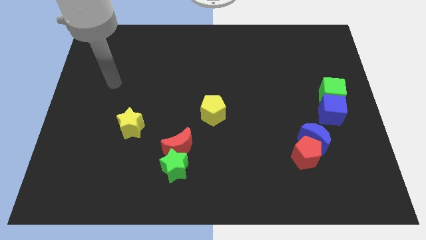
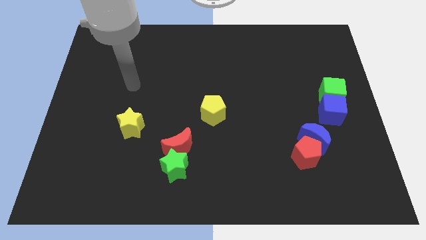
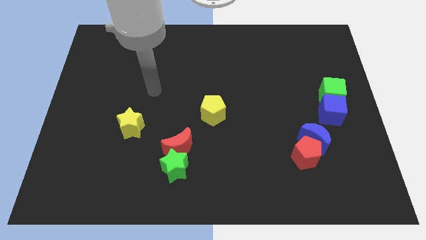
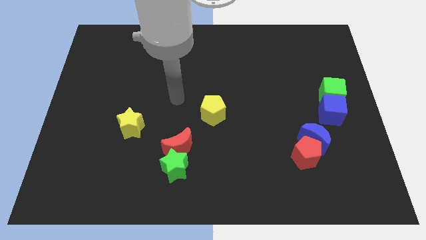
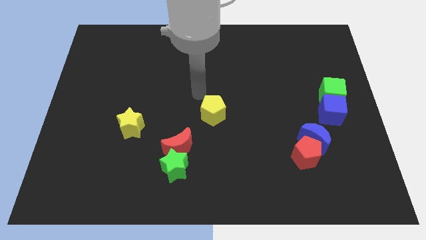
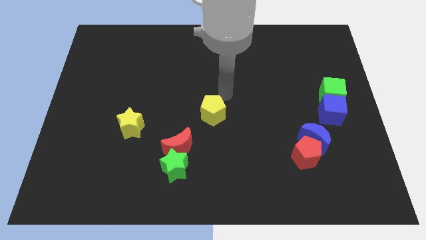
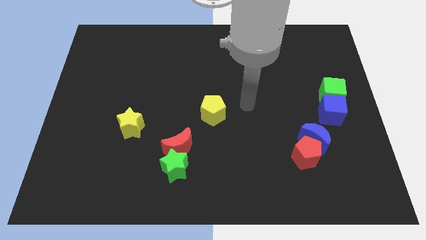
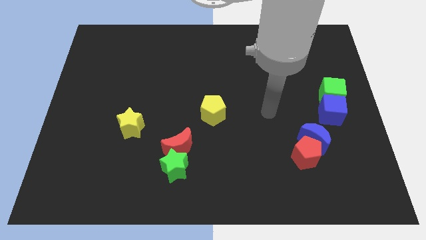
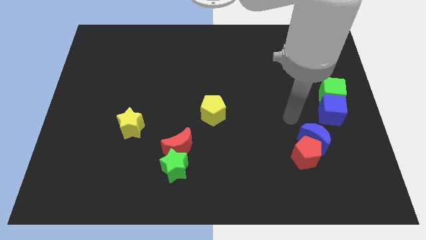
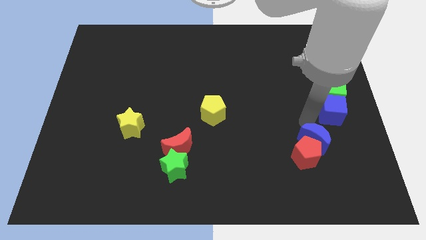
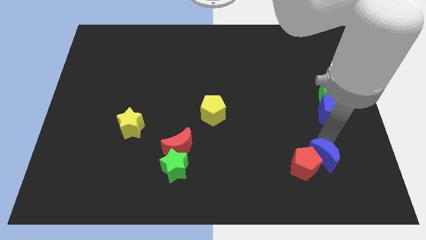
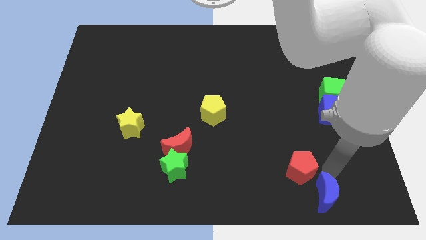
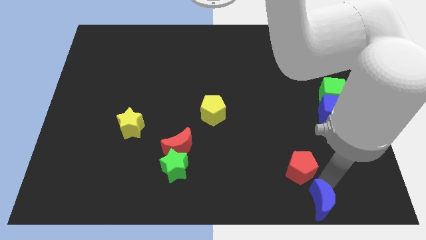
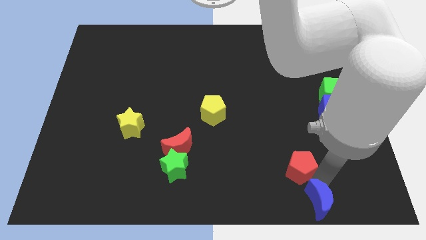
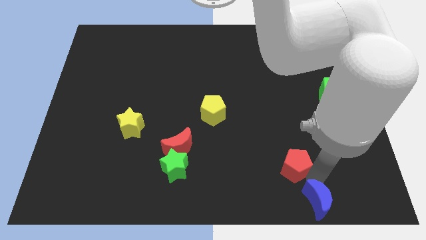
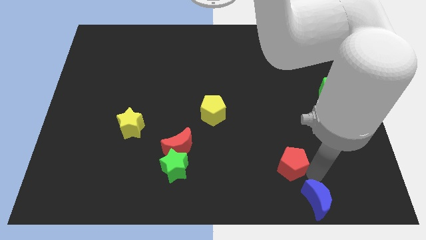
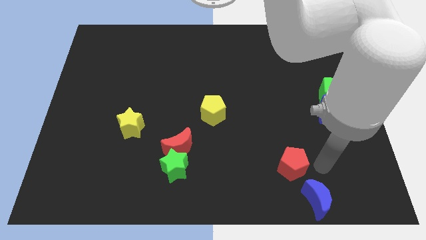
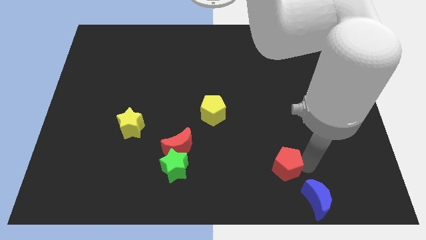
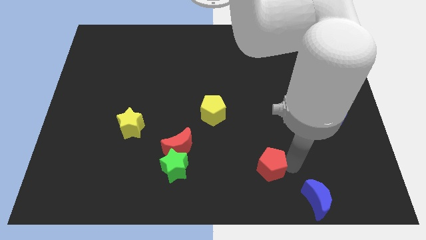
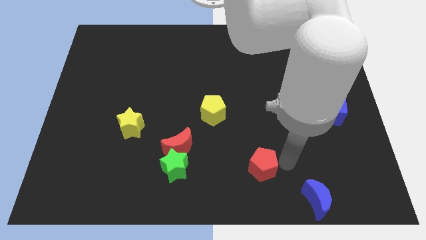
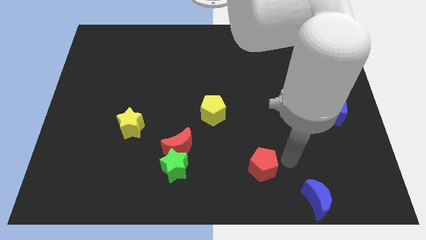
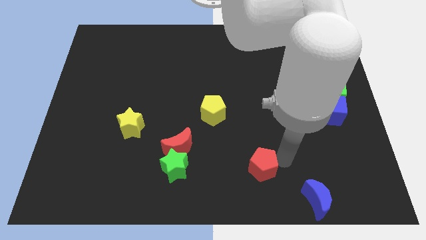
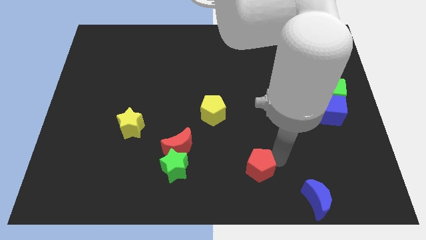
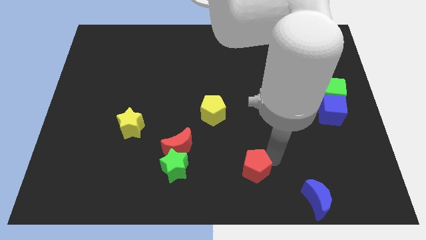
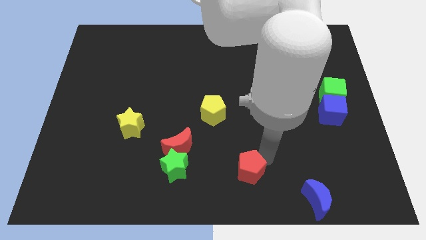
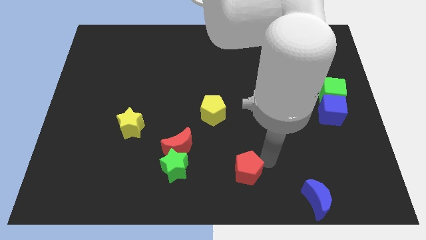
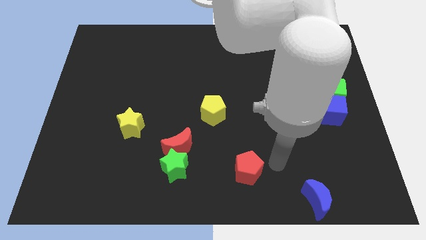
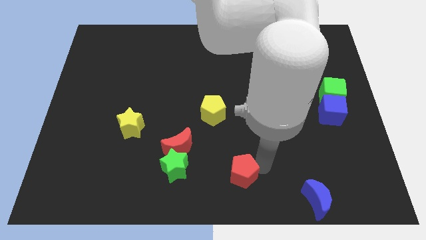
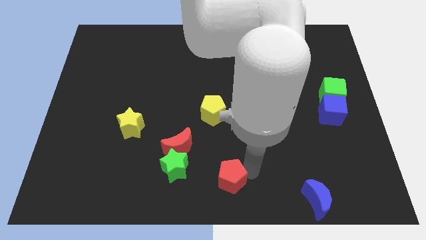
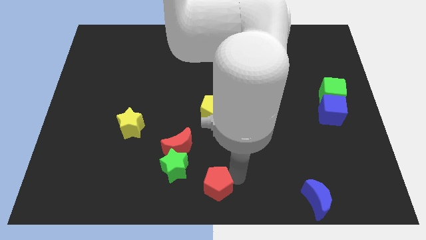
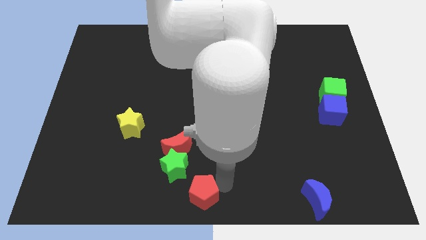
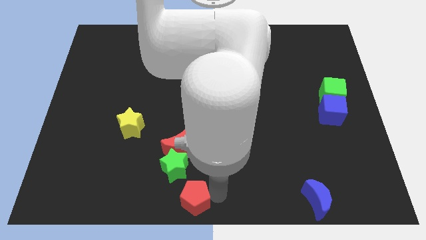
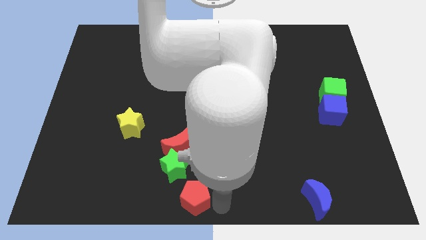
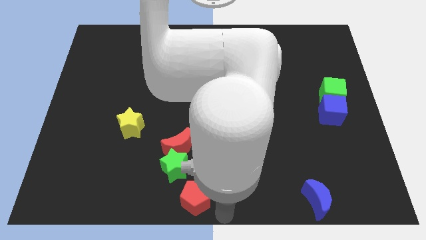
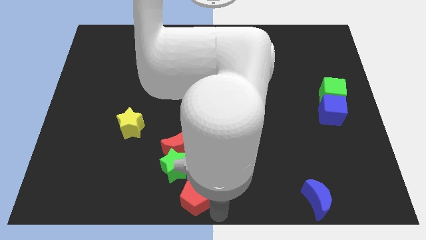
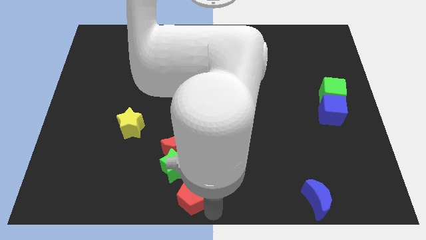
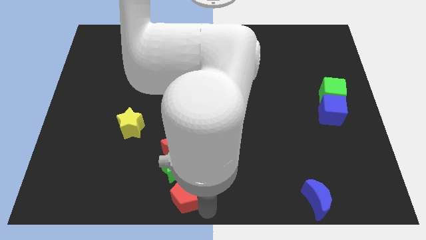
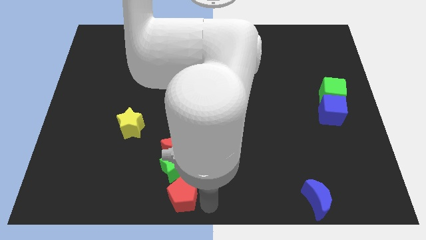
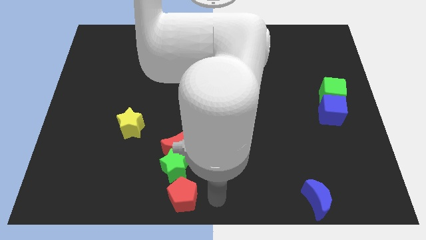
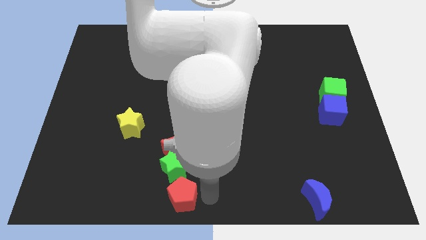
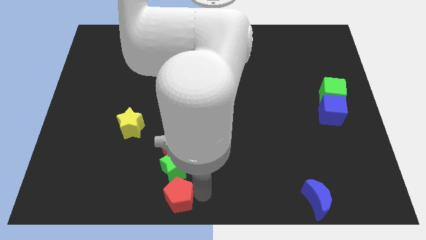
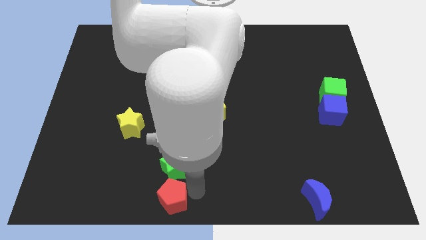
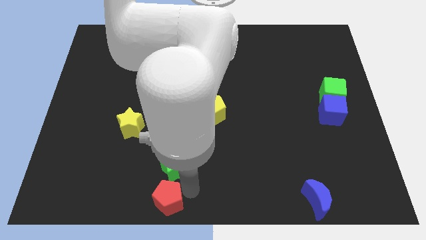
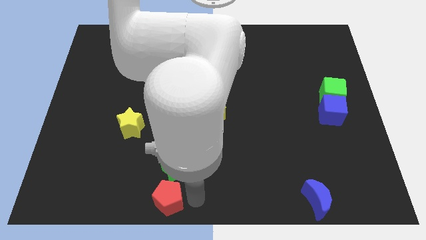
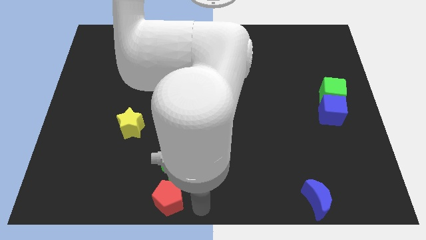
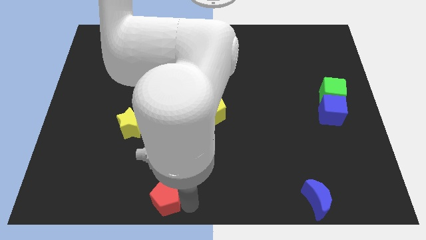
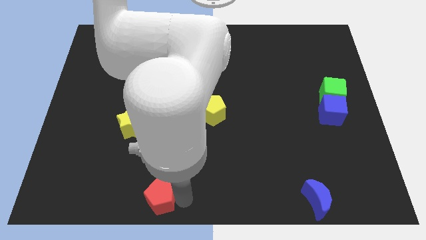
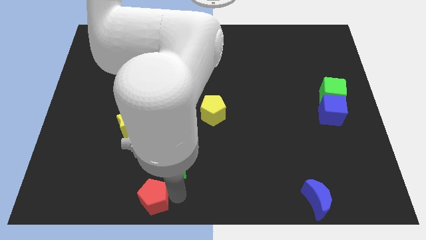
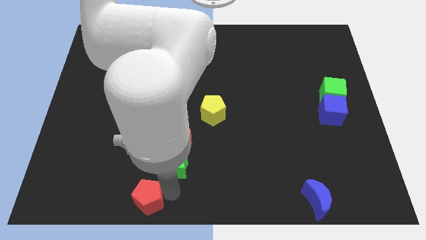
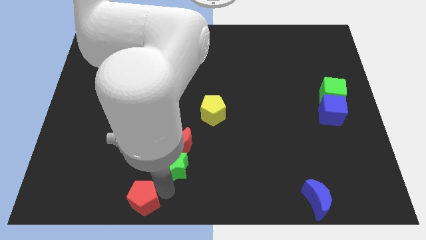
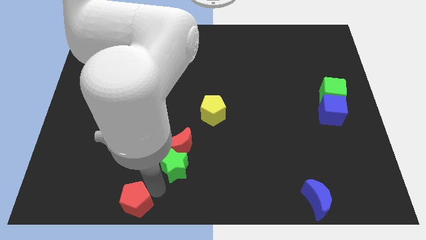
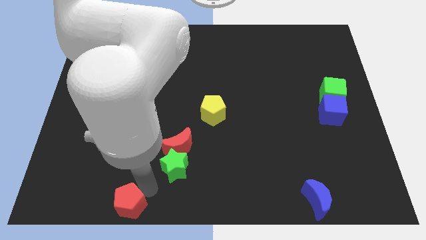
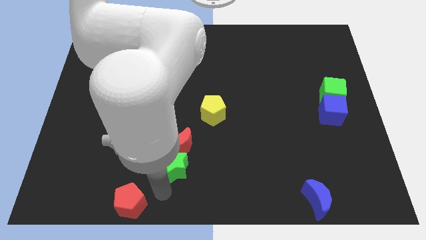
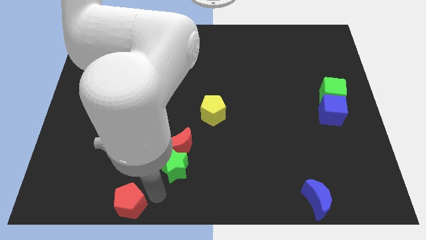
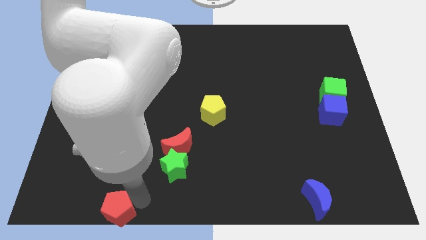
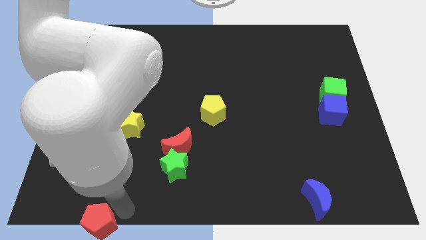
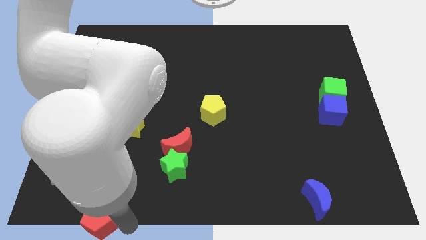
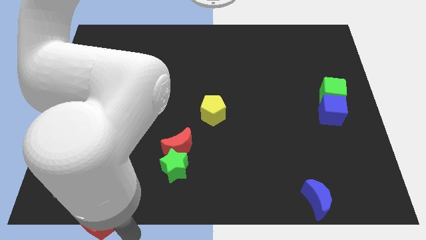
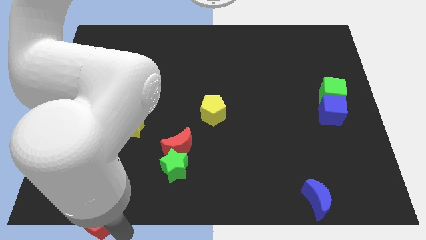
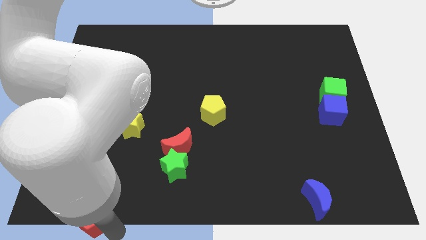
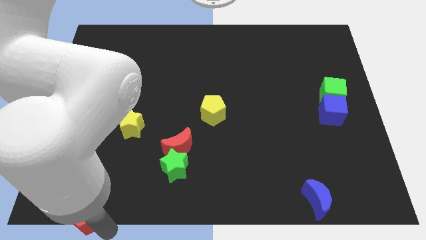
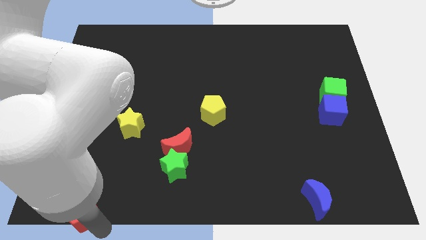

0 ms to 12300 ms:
put the red pentagon to the bottom left of the board
